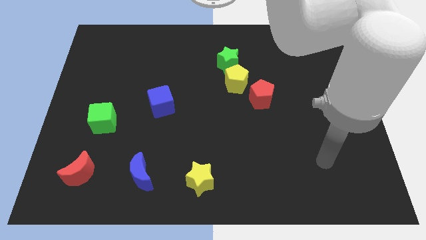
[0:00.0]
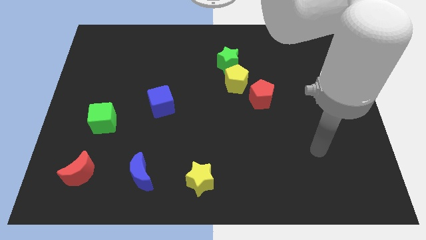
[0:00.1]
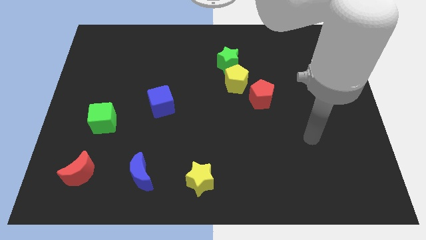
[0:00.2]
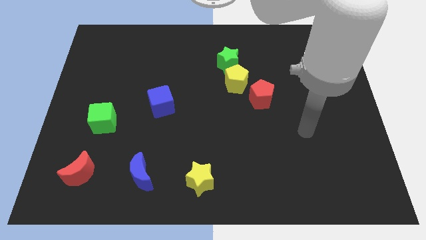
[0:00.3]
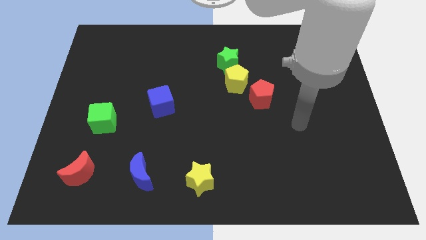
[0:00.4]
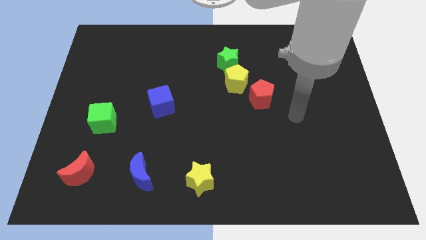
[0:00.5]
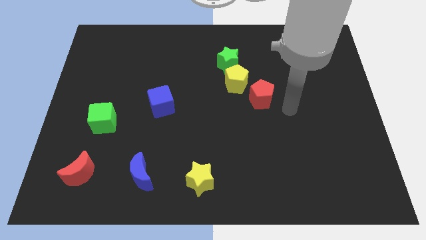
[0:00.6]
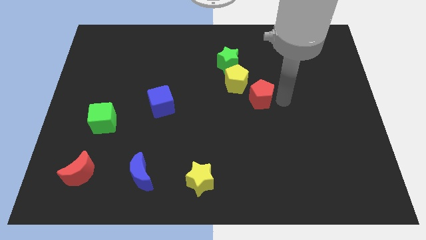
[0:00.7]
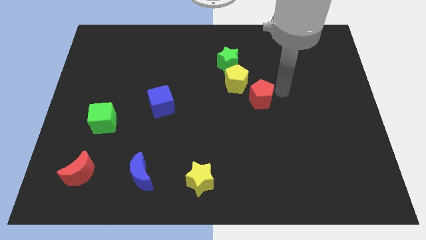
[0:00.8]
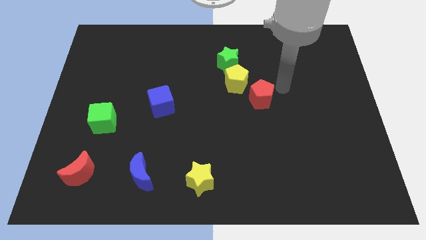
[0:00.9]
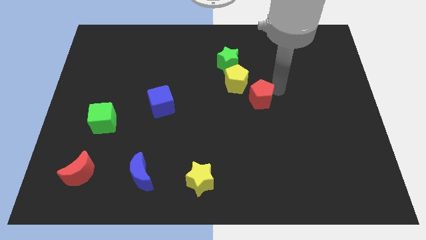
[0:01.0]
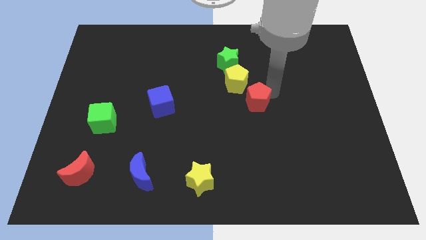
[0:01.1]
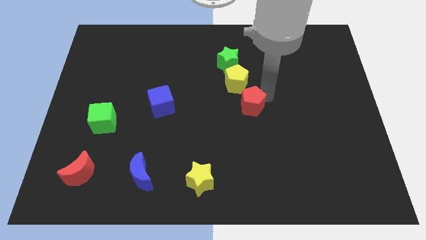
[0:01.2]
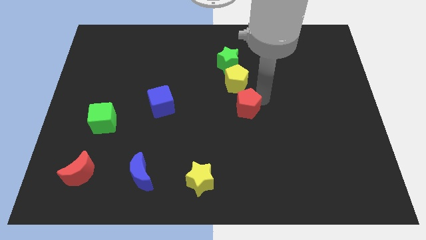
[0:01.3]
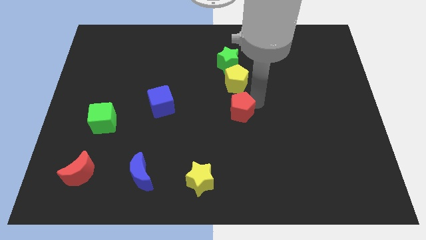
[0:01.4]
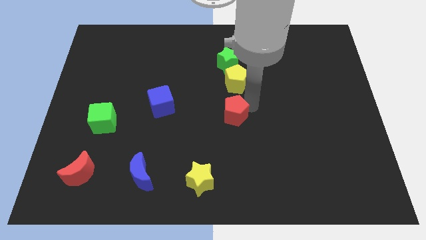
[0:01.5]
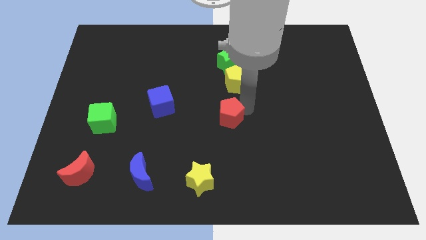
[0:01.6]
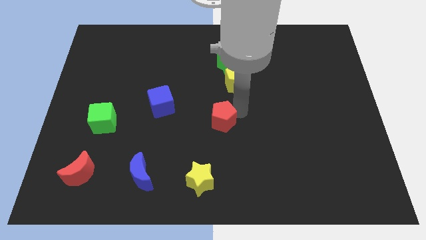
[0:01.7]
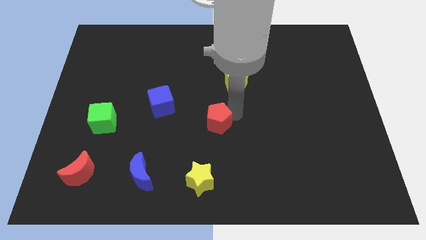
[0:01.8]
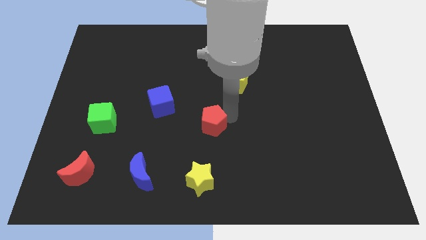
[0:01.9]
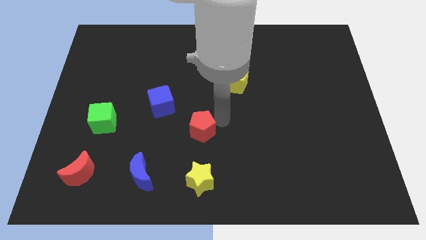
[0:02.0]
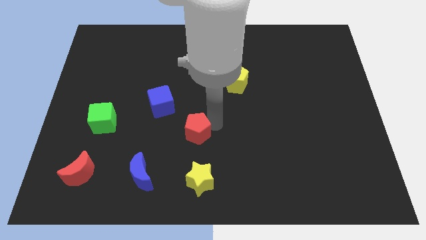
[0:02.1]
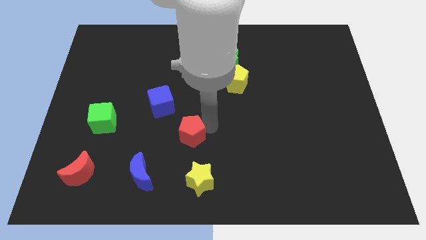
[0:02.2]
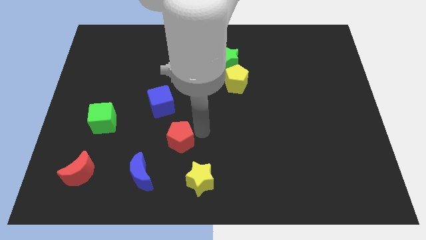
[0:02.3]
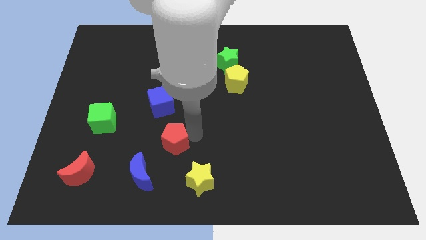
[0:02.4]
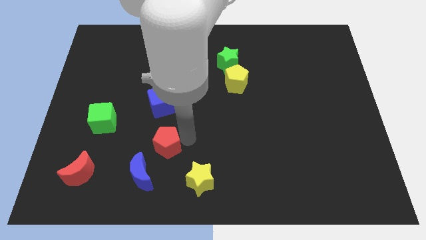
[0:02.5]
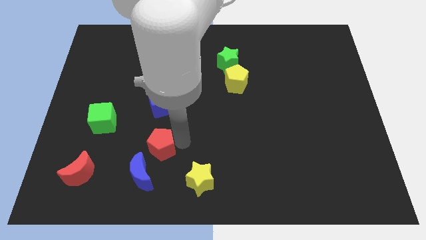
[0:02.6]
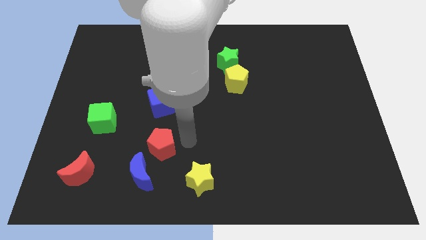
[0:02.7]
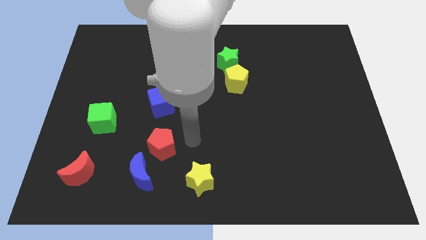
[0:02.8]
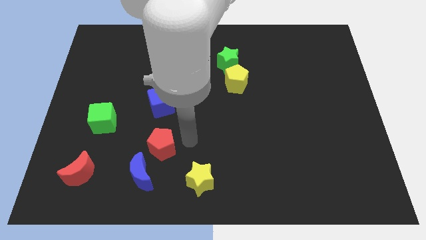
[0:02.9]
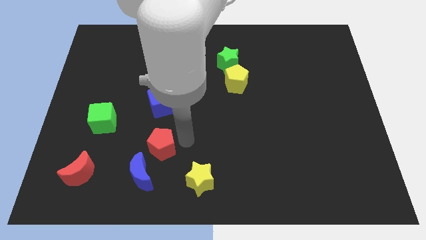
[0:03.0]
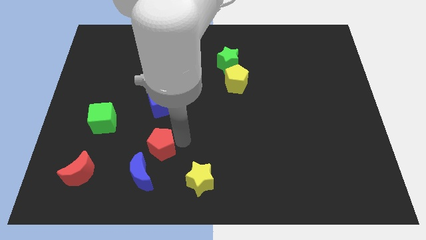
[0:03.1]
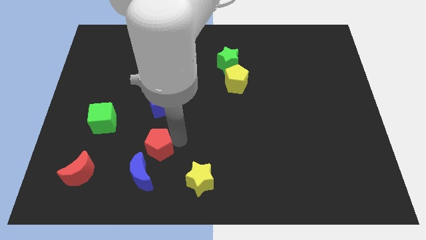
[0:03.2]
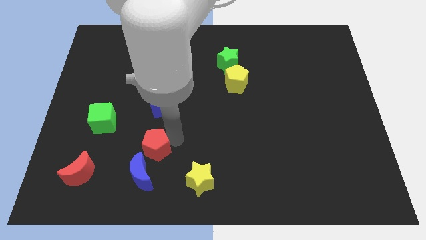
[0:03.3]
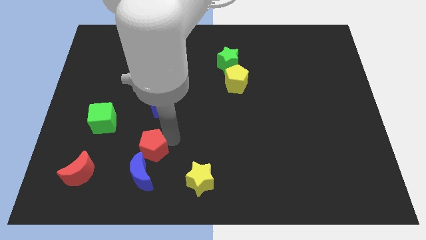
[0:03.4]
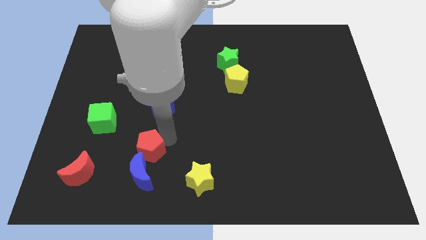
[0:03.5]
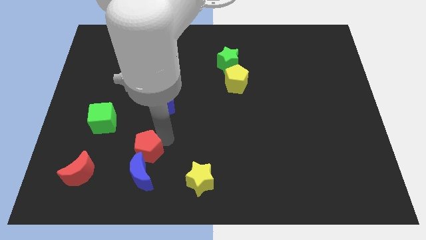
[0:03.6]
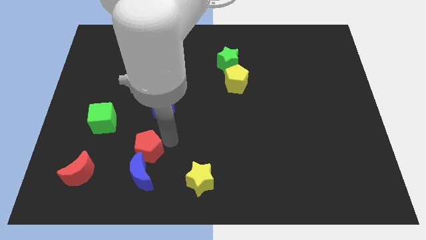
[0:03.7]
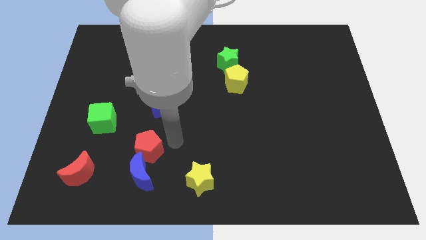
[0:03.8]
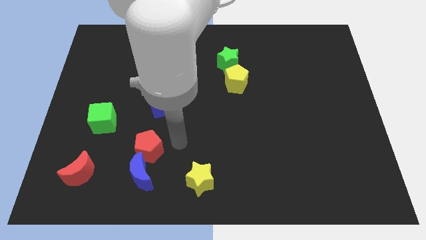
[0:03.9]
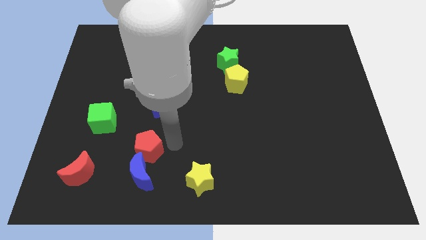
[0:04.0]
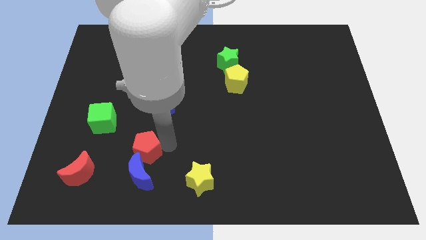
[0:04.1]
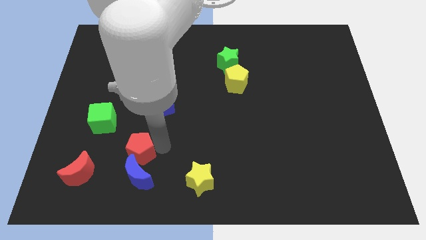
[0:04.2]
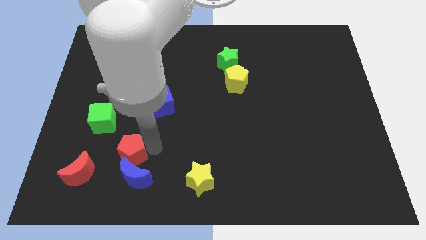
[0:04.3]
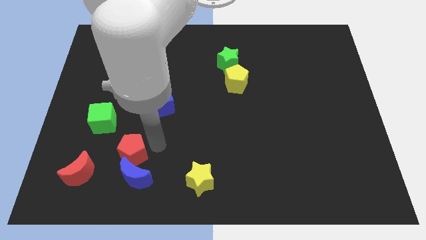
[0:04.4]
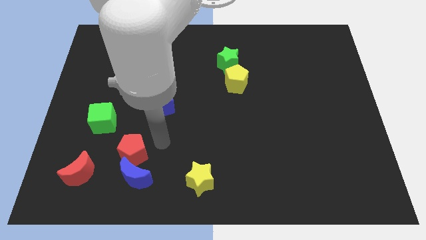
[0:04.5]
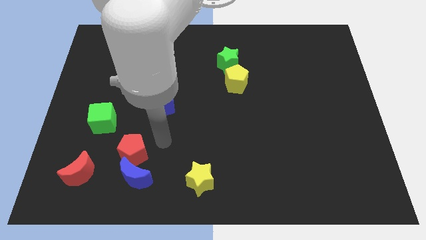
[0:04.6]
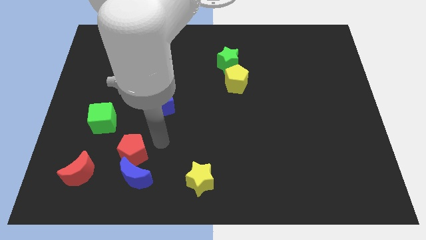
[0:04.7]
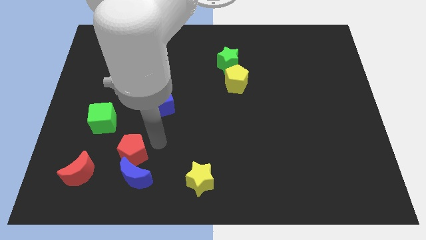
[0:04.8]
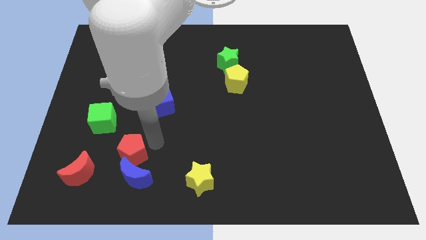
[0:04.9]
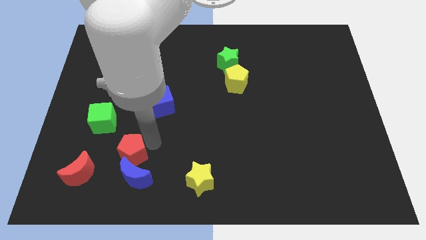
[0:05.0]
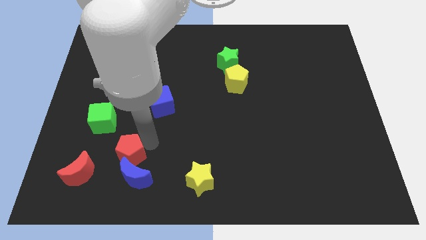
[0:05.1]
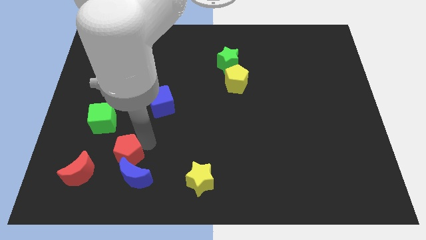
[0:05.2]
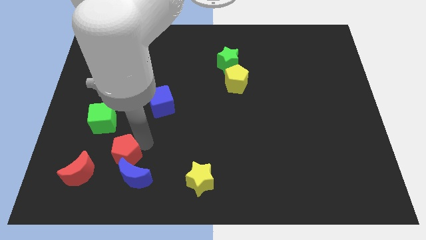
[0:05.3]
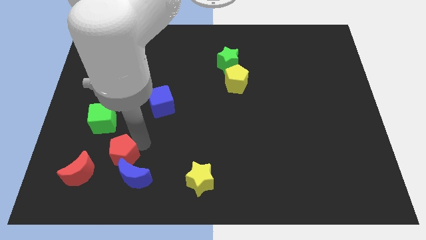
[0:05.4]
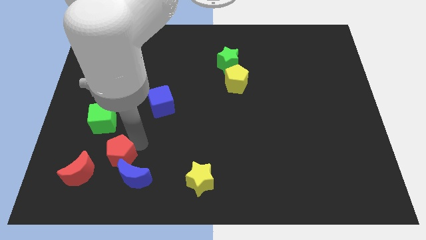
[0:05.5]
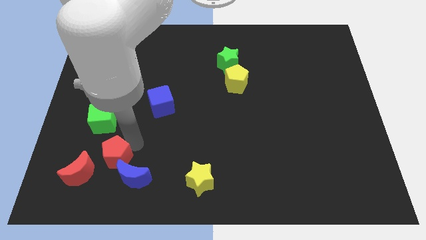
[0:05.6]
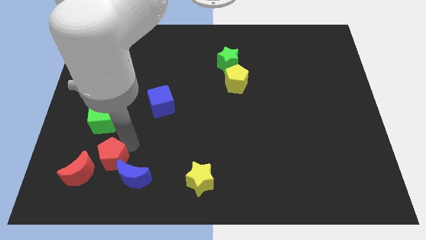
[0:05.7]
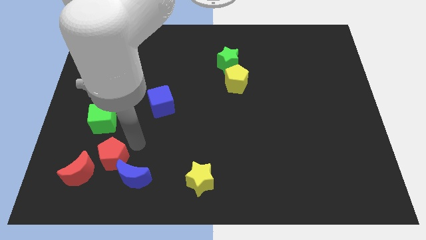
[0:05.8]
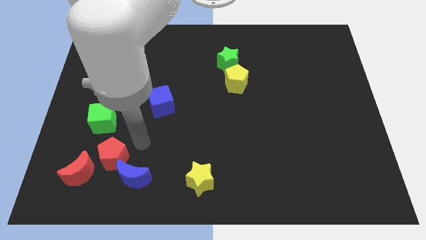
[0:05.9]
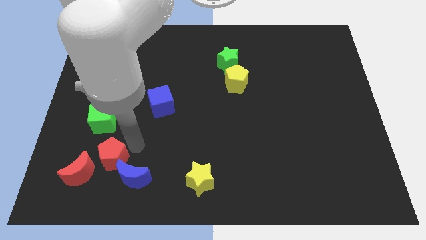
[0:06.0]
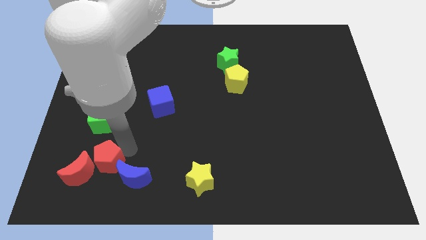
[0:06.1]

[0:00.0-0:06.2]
put the red pentagon to the red moon
